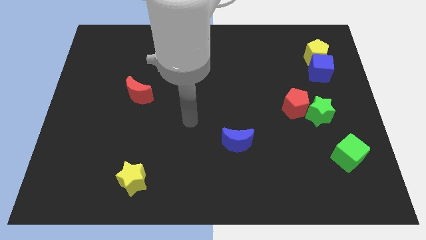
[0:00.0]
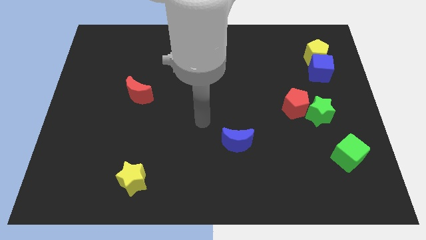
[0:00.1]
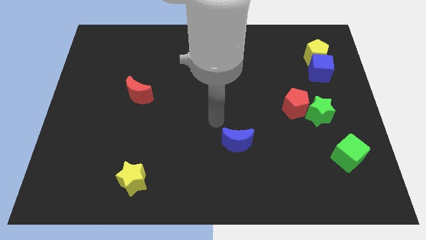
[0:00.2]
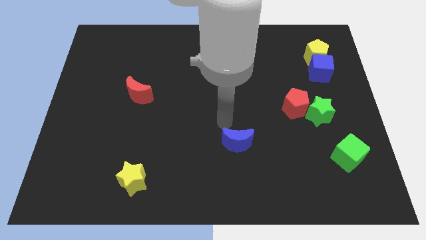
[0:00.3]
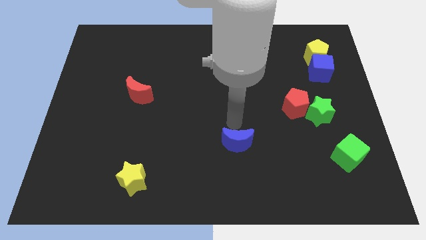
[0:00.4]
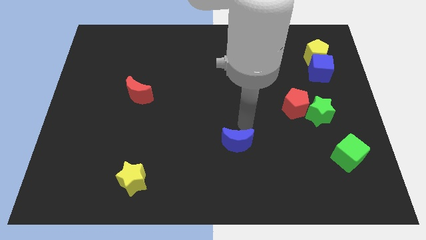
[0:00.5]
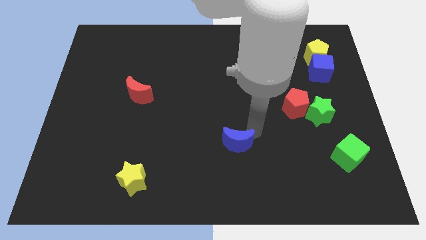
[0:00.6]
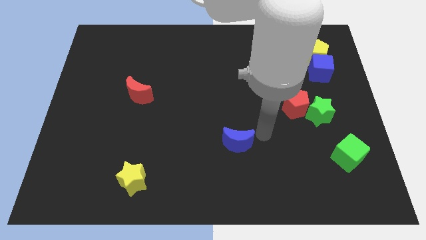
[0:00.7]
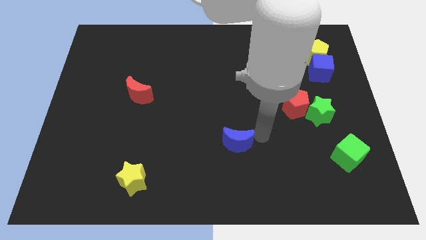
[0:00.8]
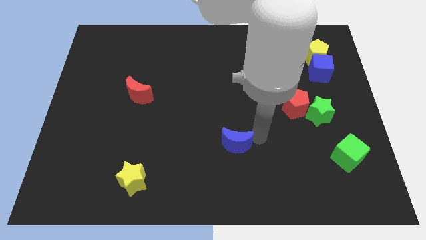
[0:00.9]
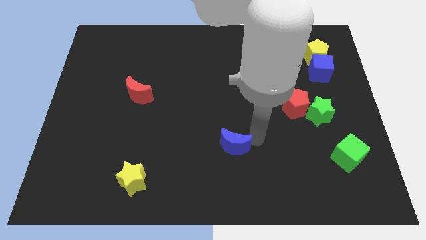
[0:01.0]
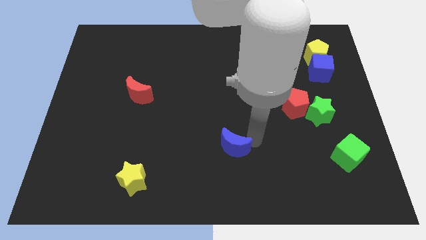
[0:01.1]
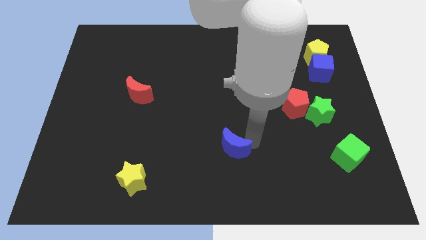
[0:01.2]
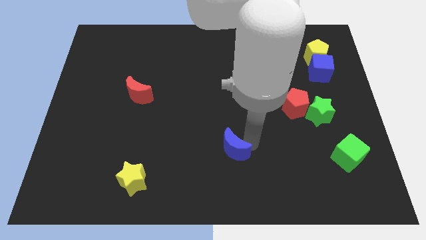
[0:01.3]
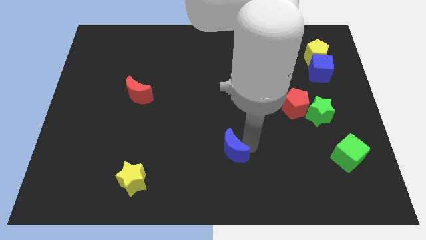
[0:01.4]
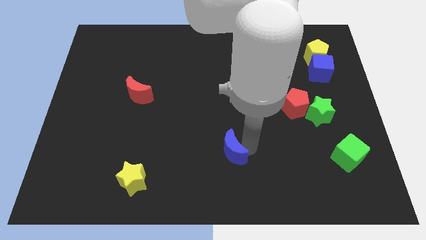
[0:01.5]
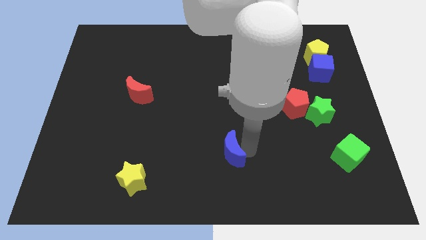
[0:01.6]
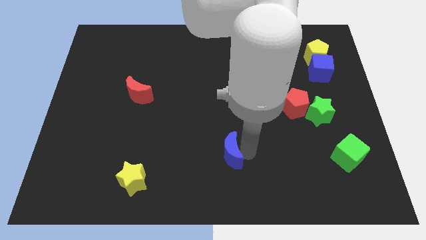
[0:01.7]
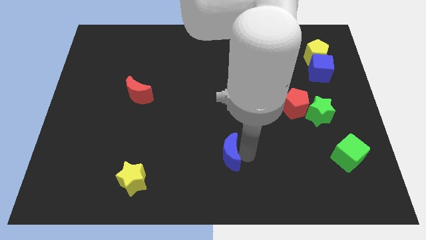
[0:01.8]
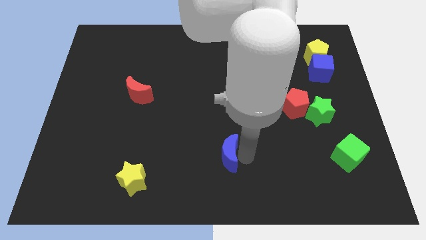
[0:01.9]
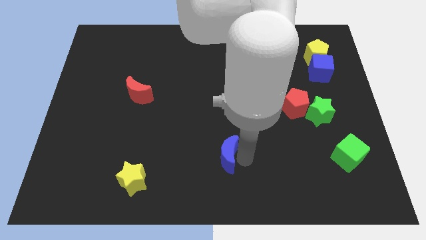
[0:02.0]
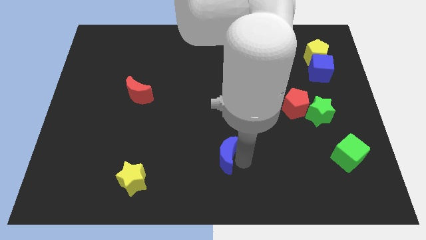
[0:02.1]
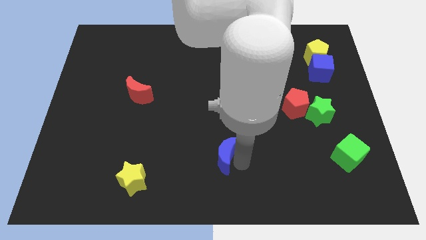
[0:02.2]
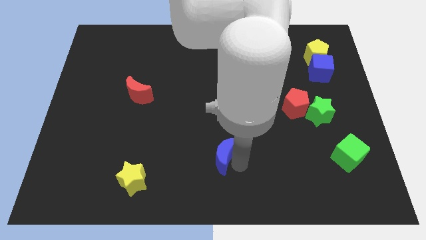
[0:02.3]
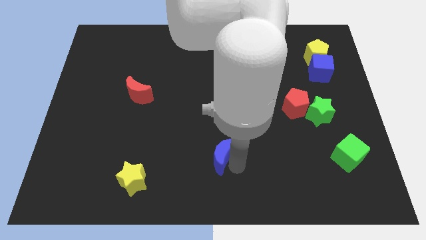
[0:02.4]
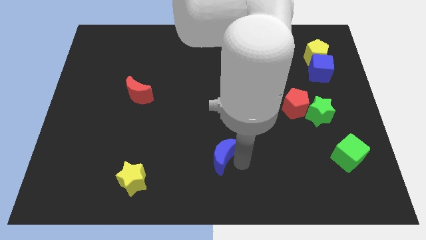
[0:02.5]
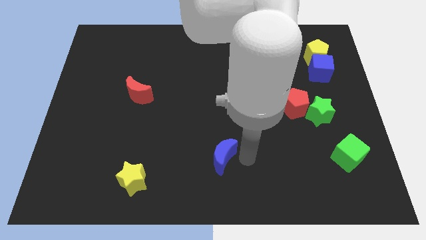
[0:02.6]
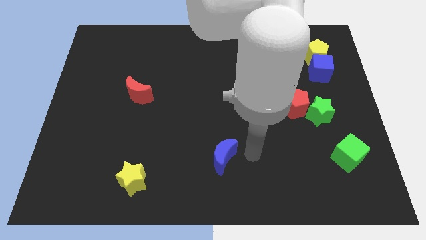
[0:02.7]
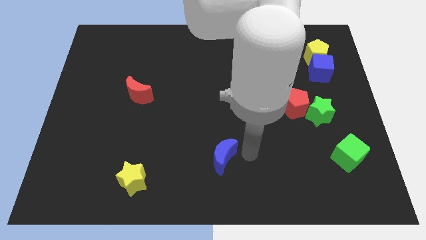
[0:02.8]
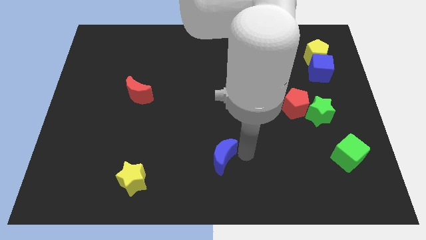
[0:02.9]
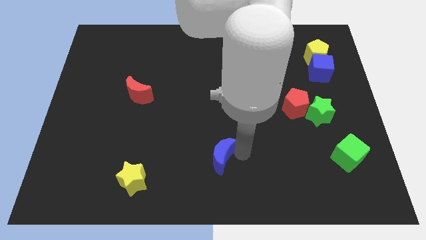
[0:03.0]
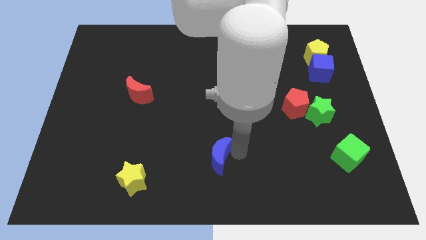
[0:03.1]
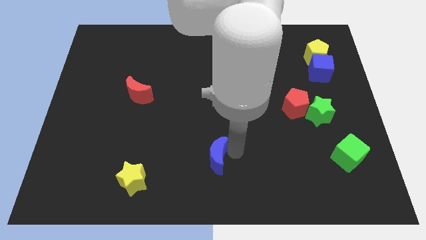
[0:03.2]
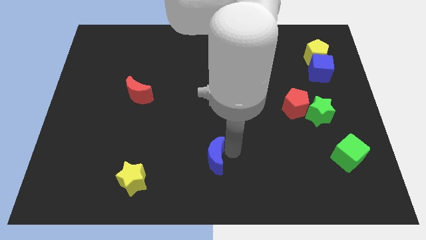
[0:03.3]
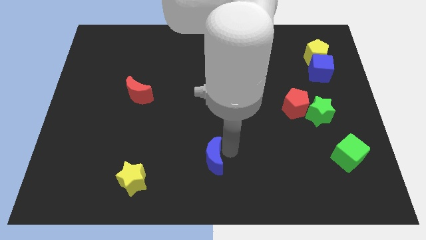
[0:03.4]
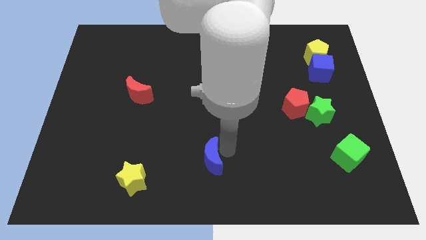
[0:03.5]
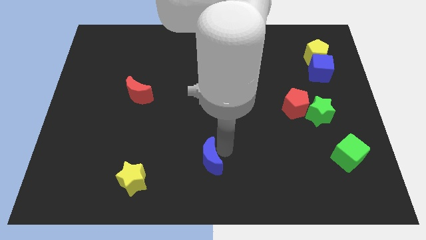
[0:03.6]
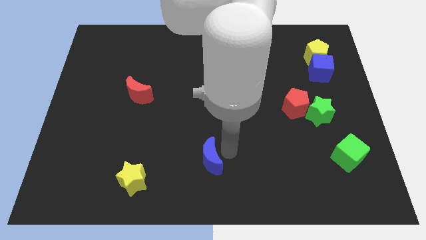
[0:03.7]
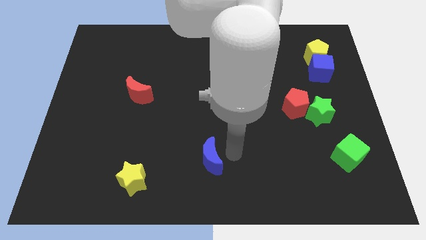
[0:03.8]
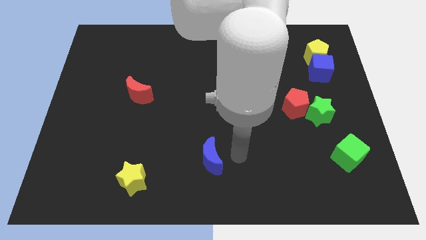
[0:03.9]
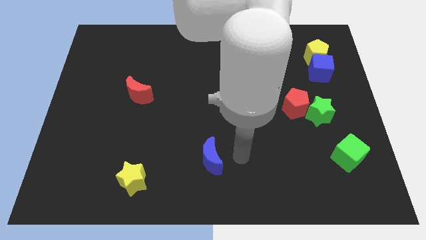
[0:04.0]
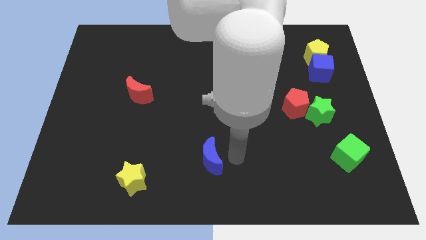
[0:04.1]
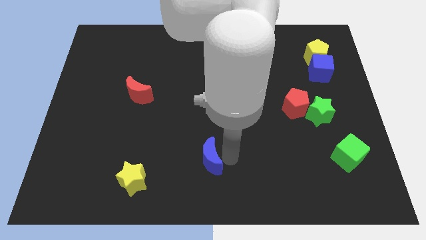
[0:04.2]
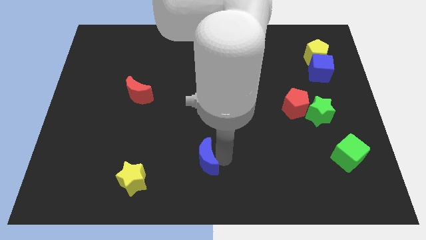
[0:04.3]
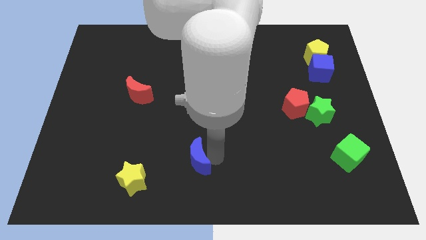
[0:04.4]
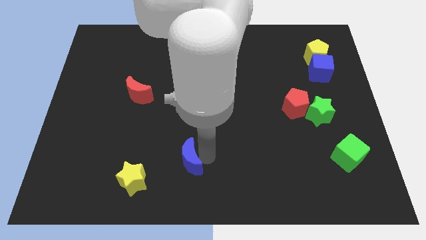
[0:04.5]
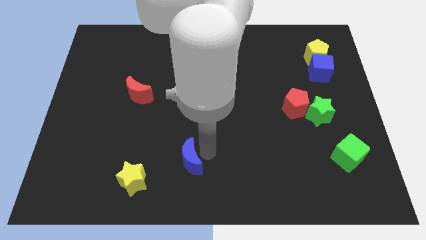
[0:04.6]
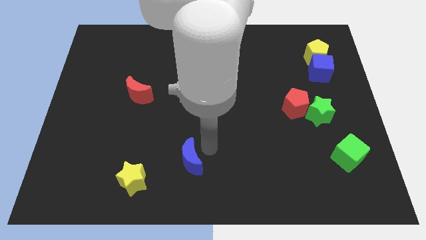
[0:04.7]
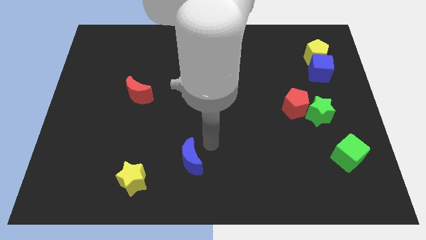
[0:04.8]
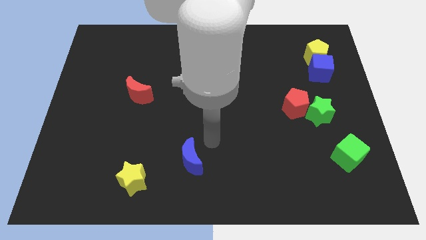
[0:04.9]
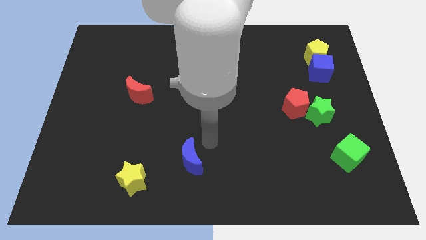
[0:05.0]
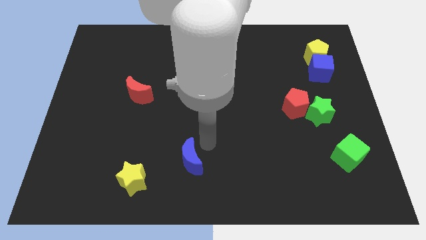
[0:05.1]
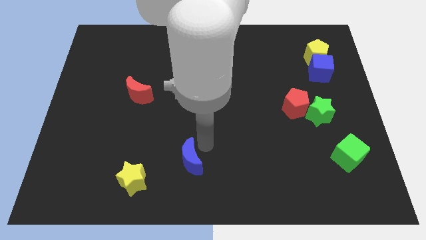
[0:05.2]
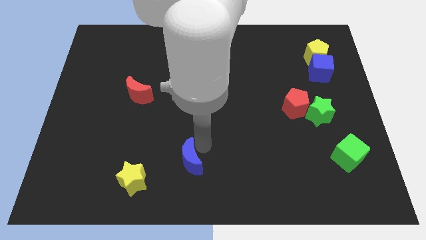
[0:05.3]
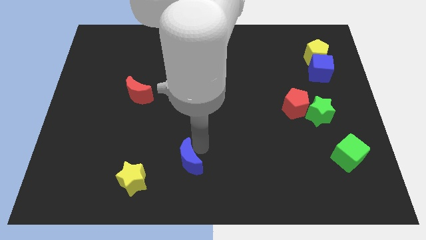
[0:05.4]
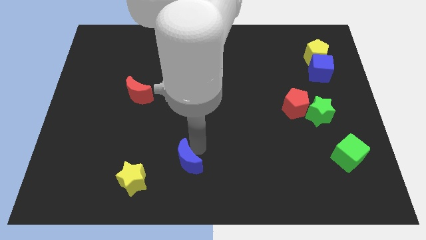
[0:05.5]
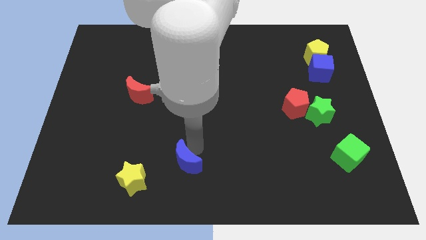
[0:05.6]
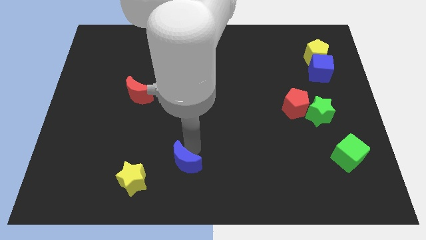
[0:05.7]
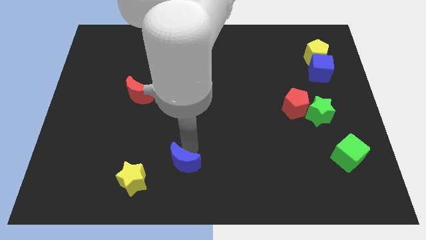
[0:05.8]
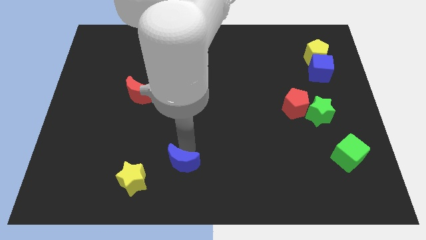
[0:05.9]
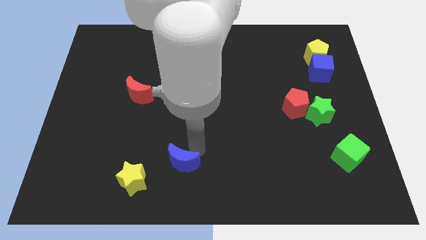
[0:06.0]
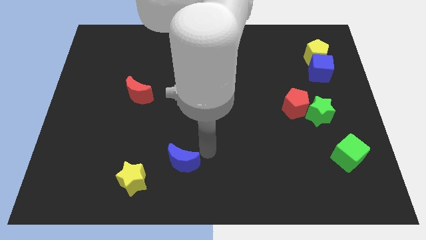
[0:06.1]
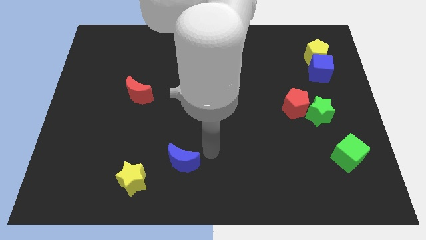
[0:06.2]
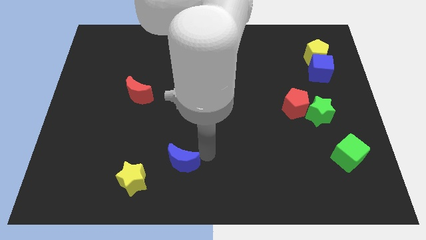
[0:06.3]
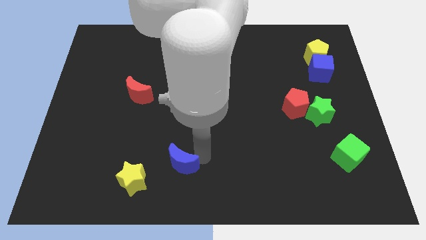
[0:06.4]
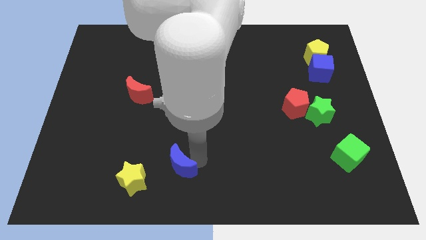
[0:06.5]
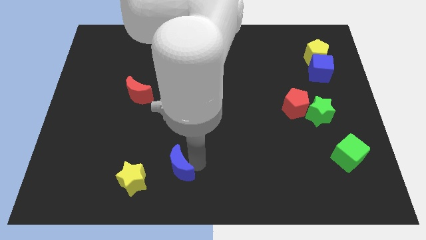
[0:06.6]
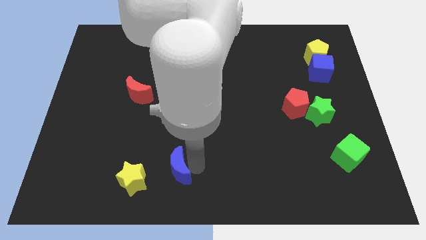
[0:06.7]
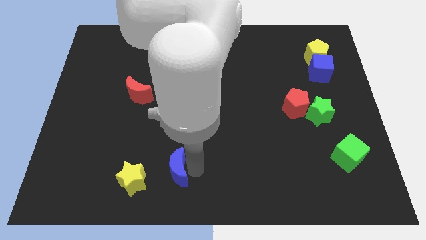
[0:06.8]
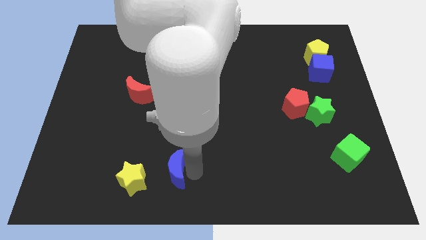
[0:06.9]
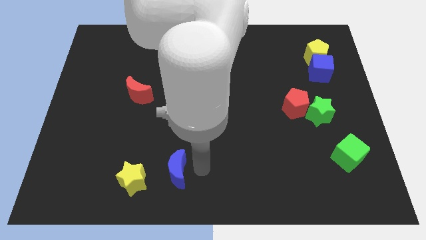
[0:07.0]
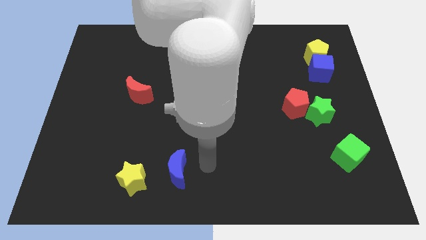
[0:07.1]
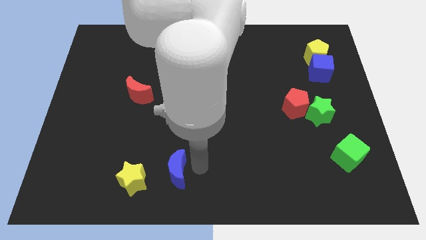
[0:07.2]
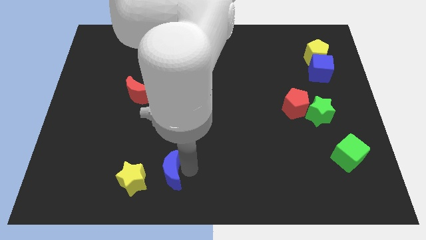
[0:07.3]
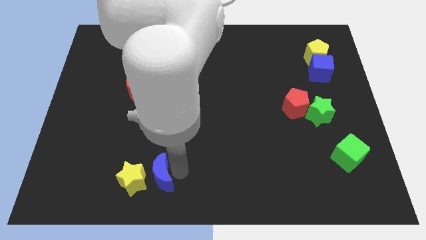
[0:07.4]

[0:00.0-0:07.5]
move the blue moon towards the yellow star
